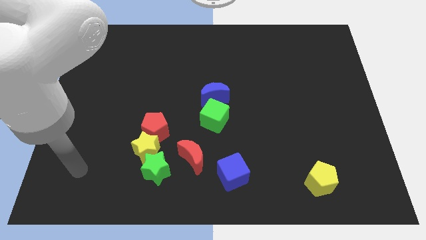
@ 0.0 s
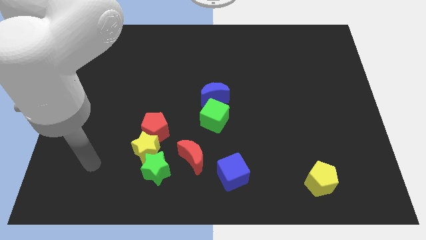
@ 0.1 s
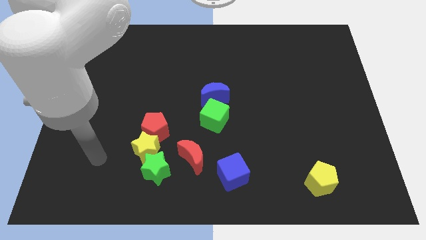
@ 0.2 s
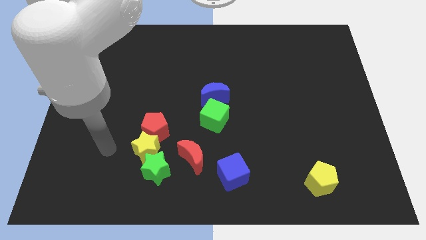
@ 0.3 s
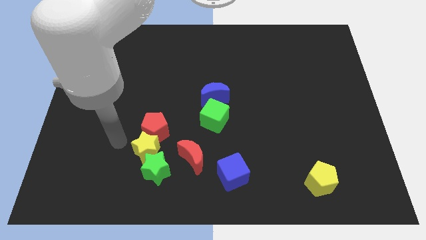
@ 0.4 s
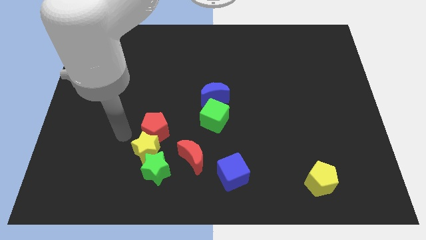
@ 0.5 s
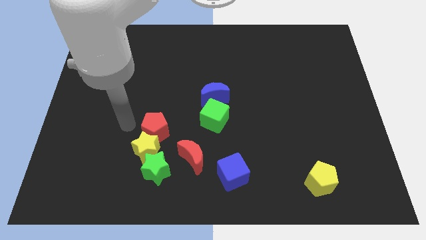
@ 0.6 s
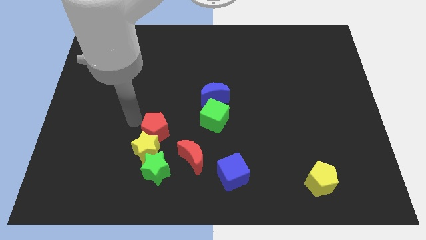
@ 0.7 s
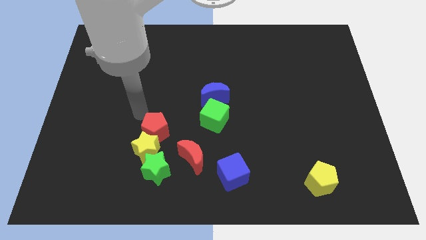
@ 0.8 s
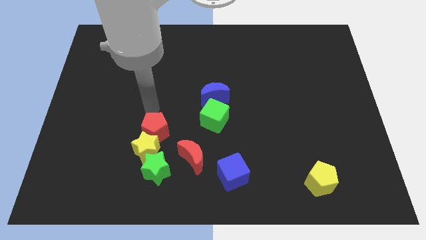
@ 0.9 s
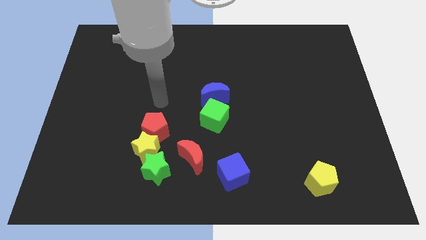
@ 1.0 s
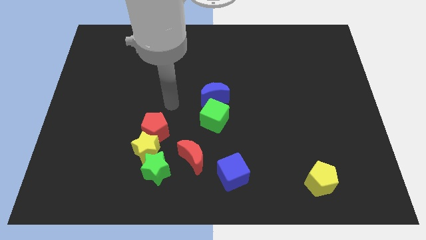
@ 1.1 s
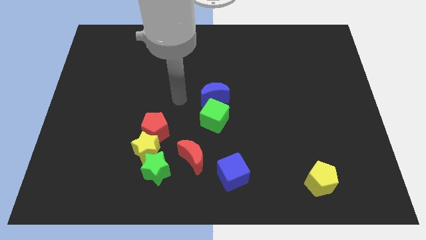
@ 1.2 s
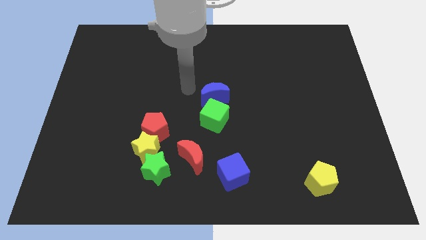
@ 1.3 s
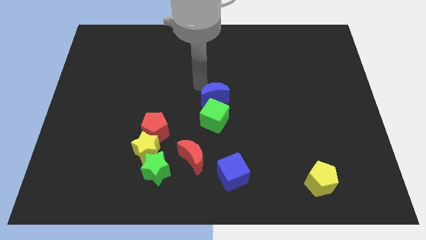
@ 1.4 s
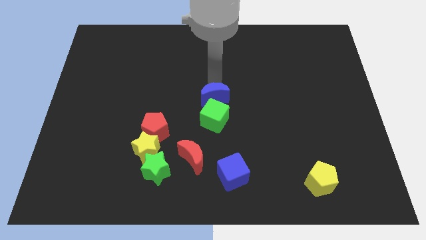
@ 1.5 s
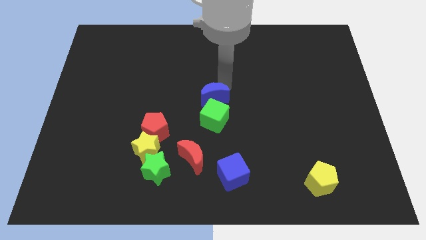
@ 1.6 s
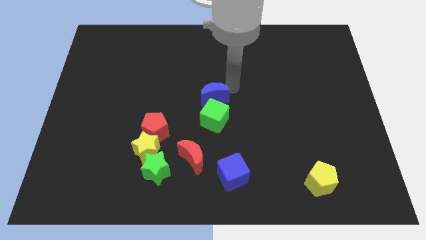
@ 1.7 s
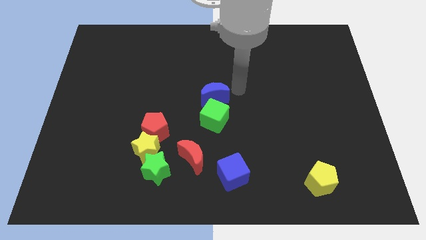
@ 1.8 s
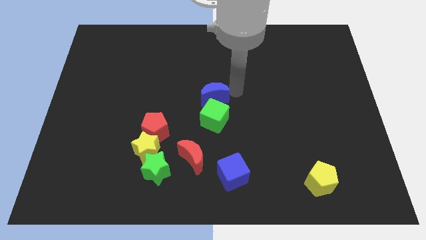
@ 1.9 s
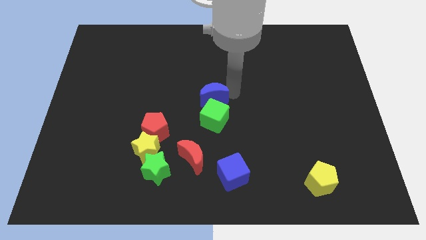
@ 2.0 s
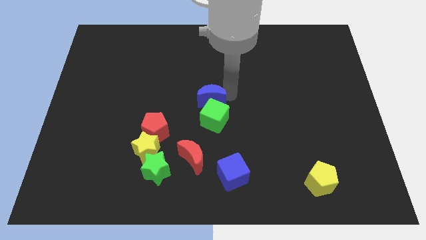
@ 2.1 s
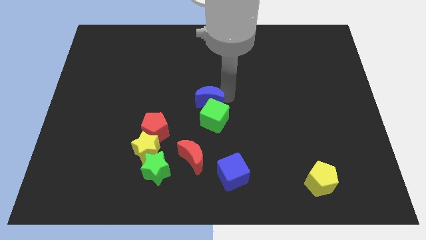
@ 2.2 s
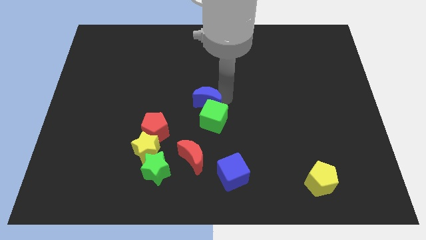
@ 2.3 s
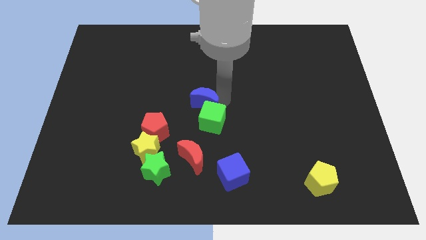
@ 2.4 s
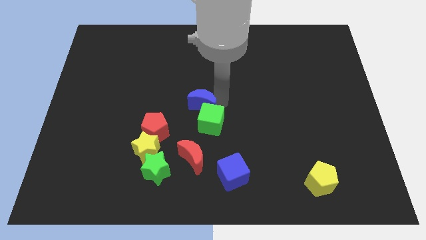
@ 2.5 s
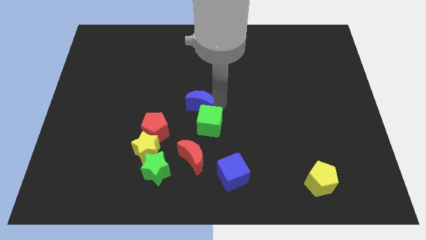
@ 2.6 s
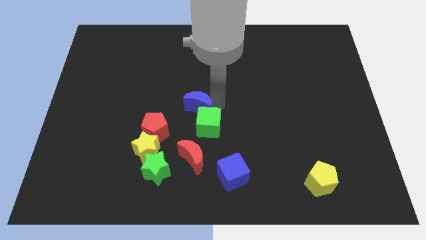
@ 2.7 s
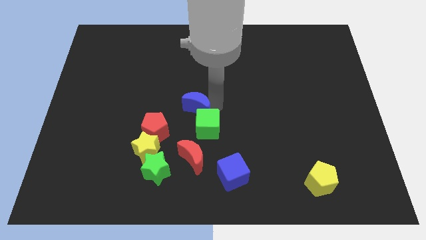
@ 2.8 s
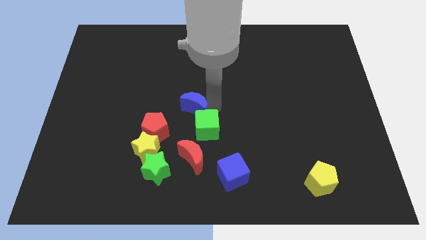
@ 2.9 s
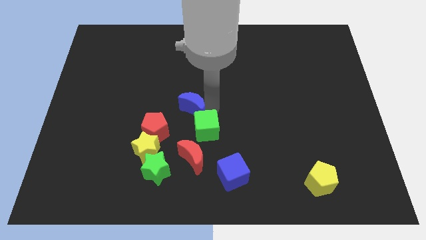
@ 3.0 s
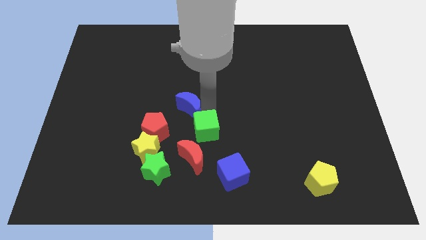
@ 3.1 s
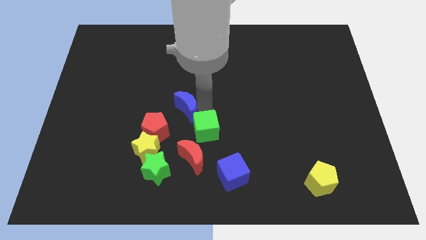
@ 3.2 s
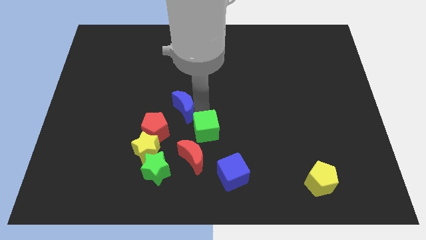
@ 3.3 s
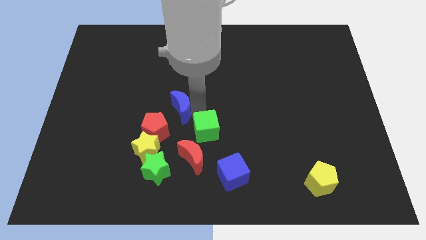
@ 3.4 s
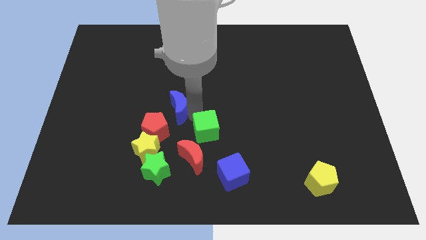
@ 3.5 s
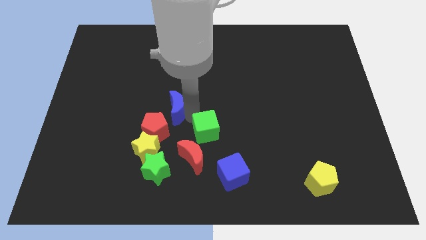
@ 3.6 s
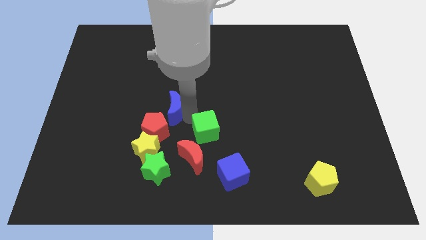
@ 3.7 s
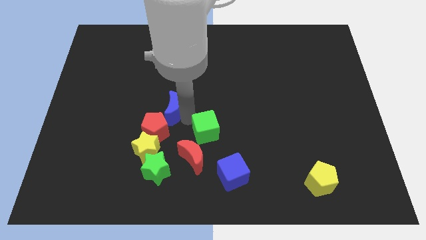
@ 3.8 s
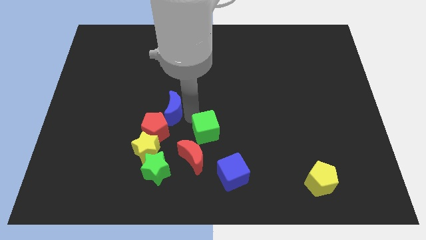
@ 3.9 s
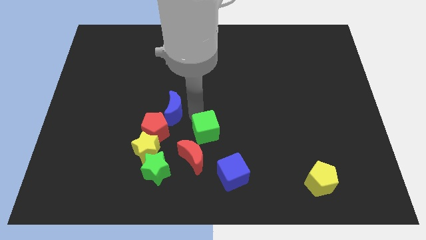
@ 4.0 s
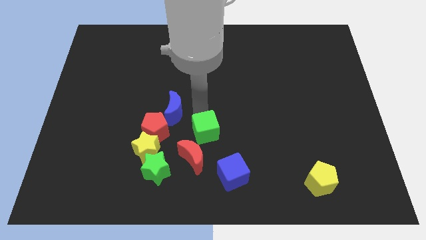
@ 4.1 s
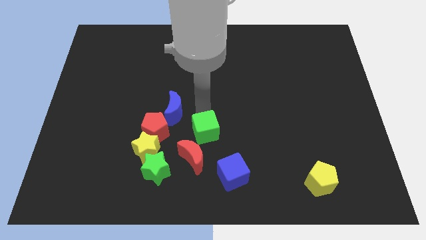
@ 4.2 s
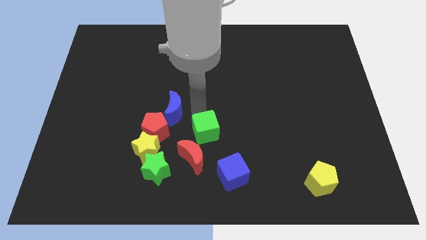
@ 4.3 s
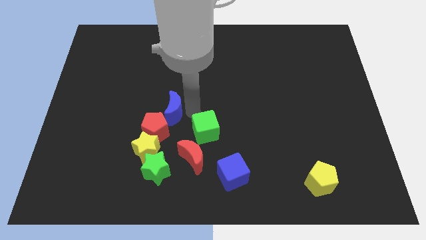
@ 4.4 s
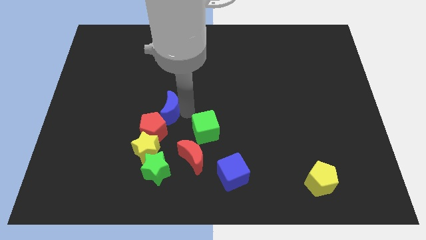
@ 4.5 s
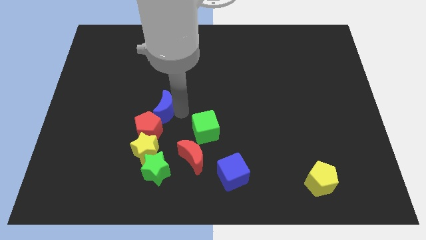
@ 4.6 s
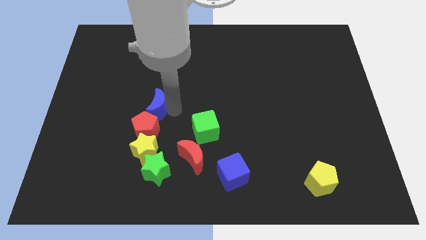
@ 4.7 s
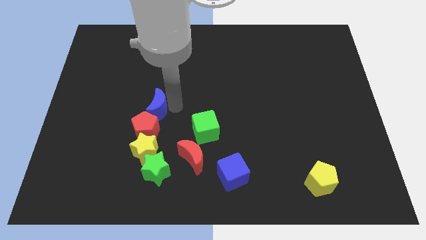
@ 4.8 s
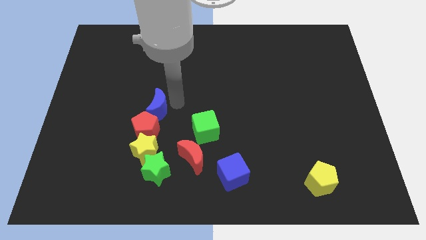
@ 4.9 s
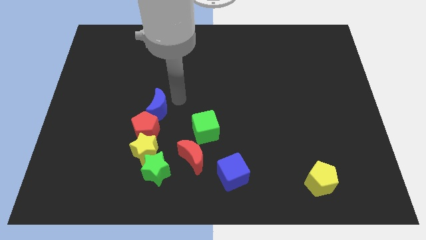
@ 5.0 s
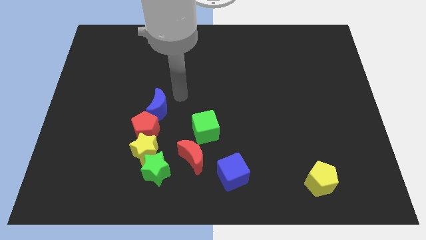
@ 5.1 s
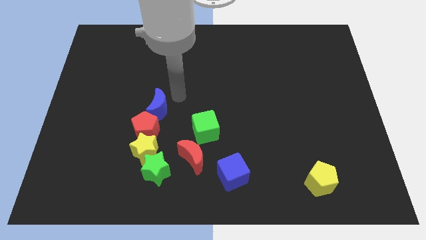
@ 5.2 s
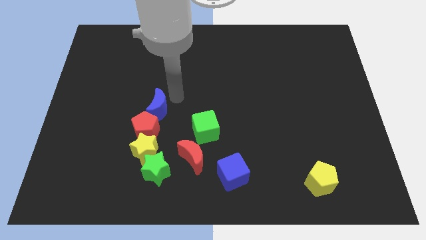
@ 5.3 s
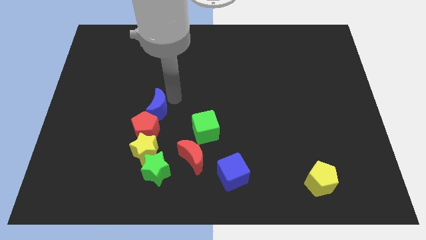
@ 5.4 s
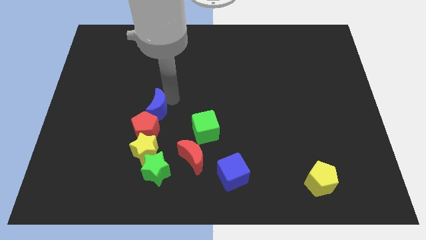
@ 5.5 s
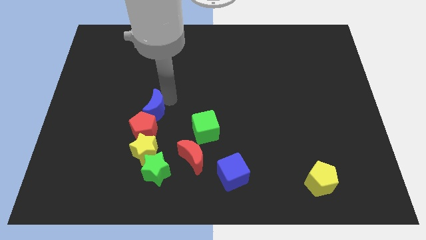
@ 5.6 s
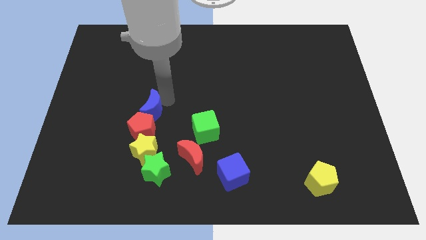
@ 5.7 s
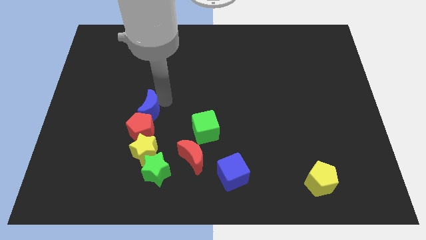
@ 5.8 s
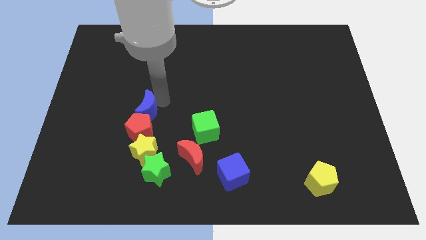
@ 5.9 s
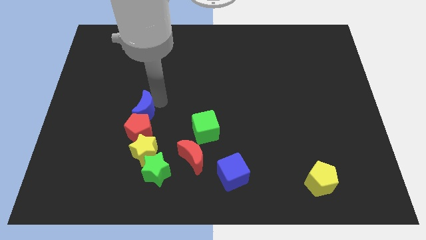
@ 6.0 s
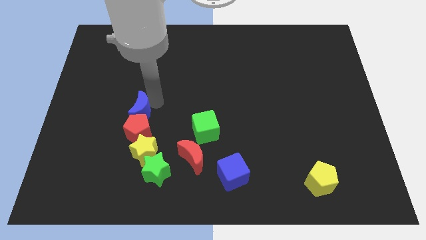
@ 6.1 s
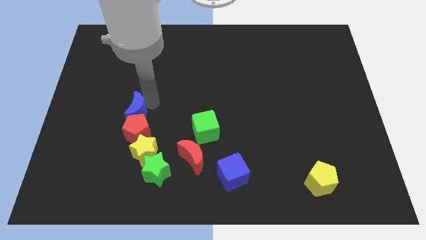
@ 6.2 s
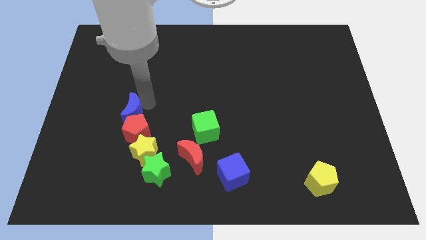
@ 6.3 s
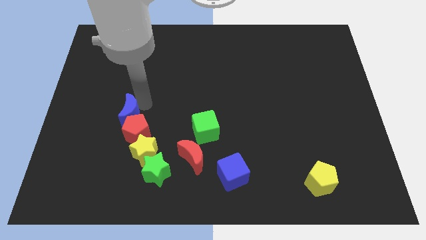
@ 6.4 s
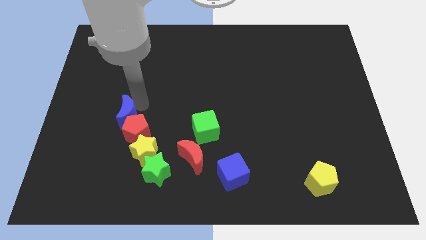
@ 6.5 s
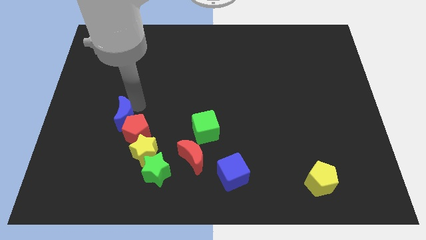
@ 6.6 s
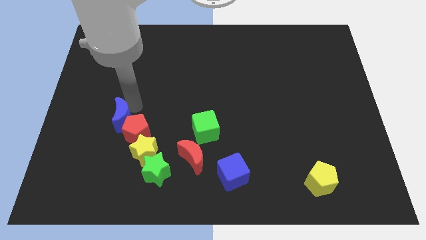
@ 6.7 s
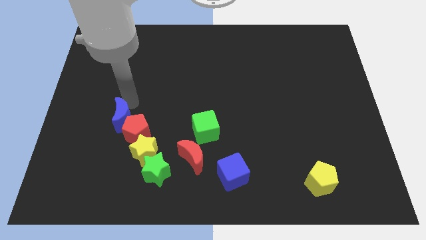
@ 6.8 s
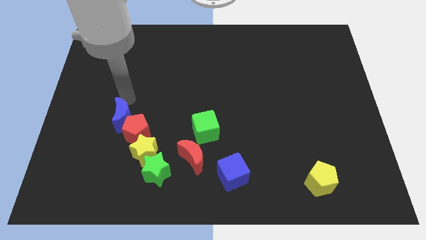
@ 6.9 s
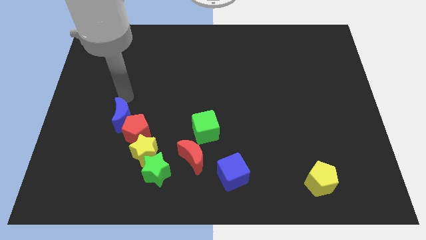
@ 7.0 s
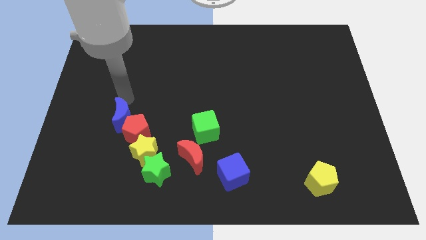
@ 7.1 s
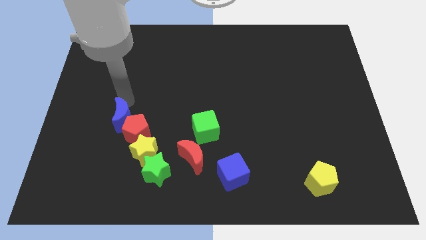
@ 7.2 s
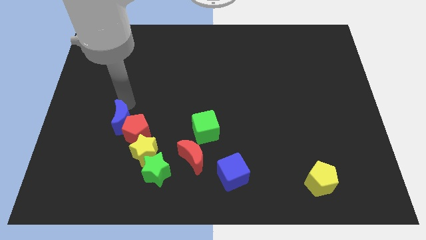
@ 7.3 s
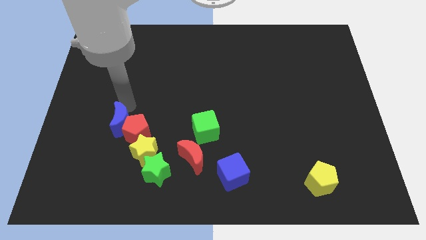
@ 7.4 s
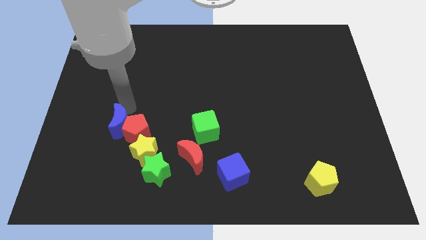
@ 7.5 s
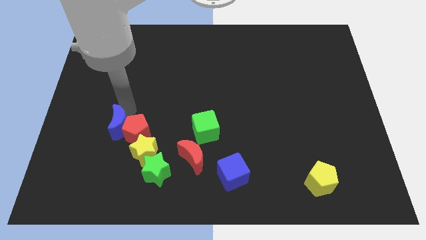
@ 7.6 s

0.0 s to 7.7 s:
slide the blue moon diagonally down and to the left of the red pentagon
